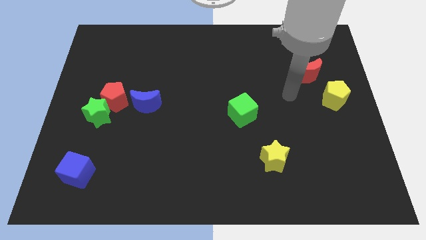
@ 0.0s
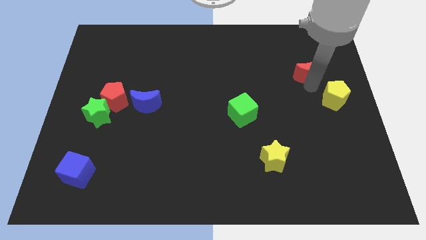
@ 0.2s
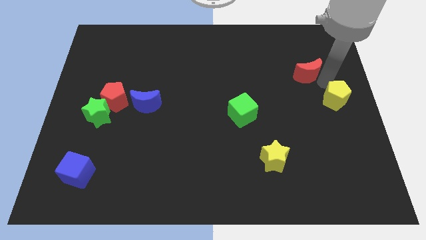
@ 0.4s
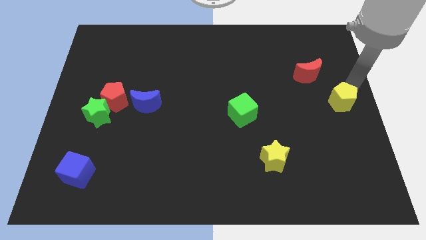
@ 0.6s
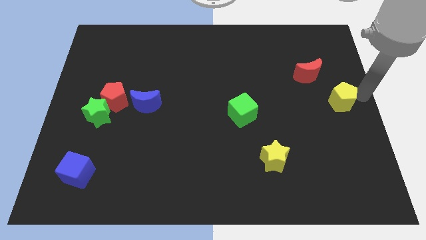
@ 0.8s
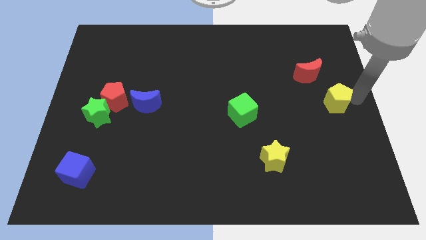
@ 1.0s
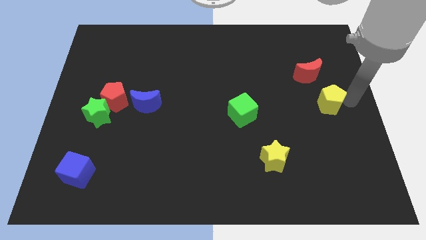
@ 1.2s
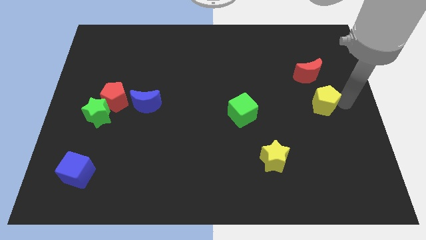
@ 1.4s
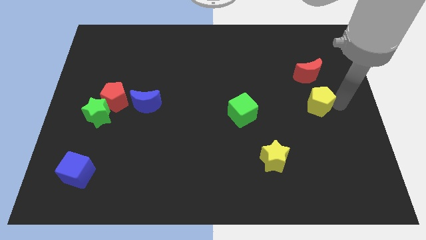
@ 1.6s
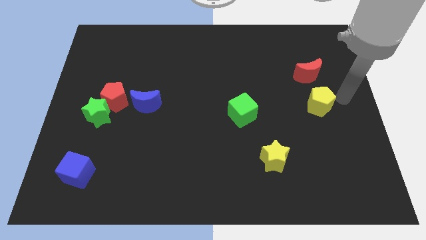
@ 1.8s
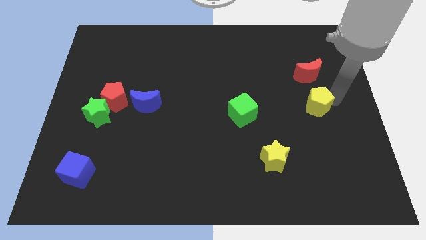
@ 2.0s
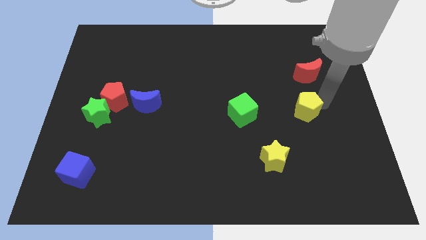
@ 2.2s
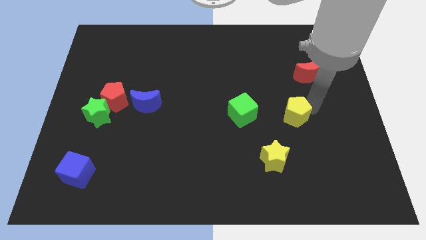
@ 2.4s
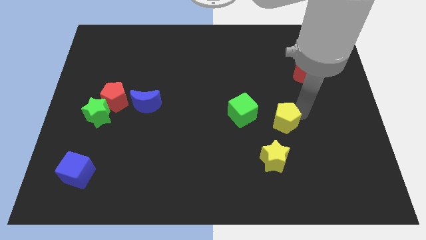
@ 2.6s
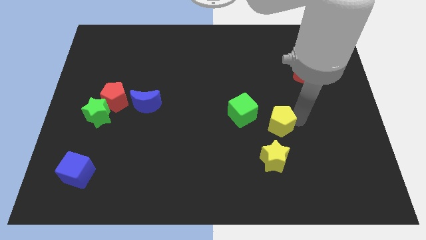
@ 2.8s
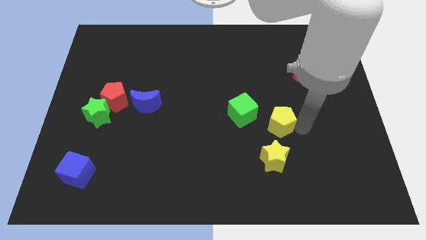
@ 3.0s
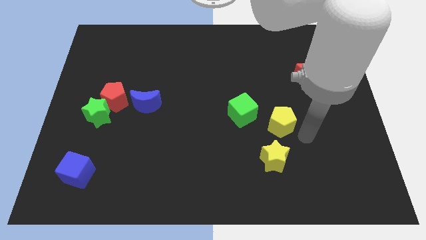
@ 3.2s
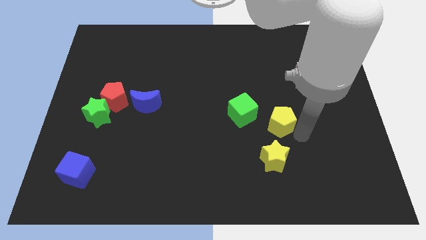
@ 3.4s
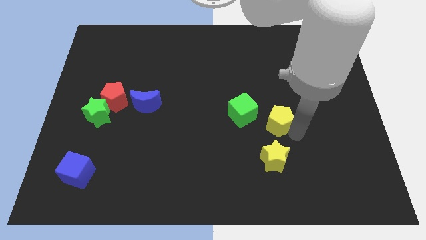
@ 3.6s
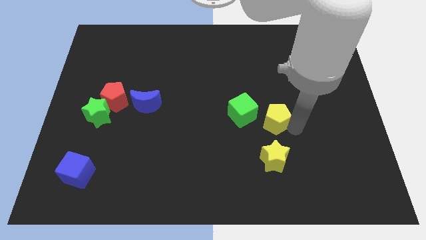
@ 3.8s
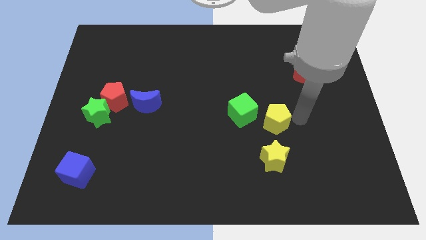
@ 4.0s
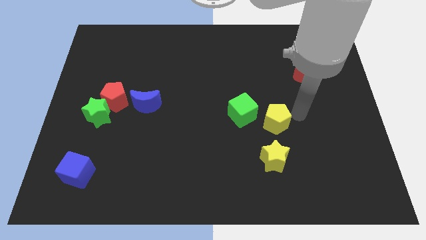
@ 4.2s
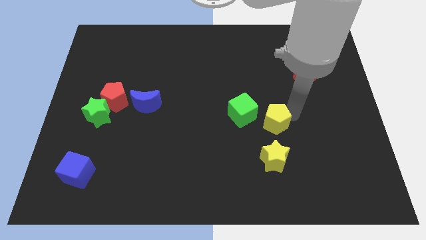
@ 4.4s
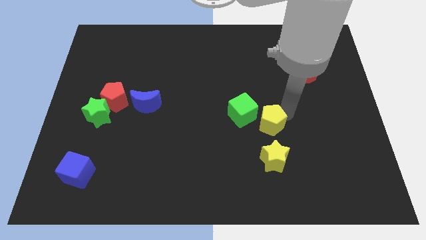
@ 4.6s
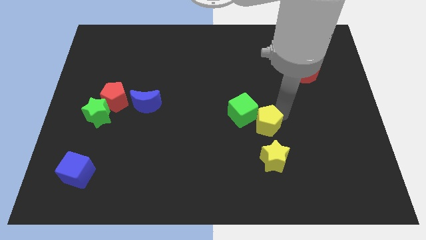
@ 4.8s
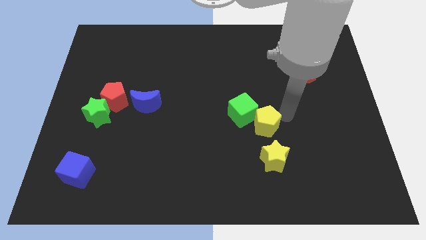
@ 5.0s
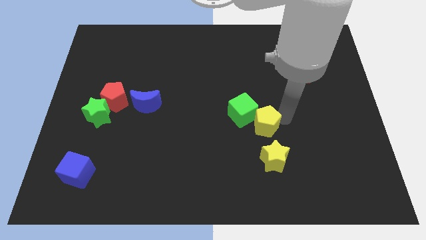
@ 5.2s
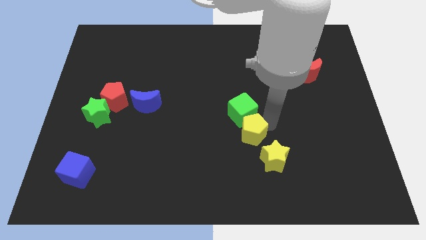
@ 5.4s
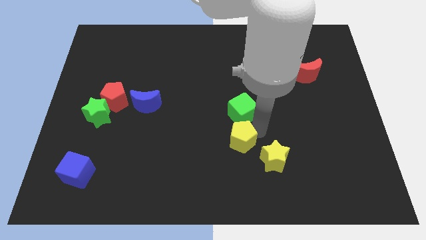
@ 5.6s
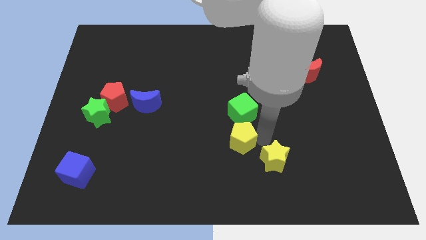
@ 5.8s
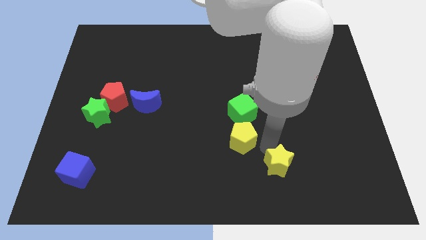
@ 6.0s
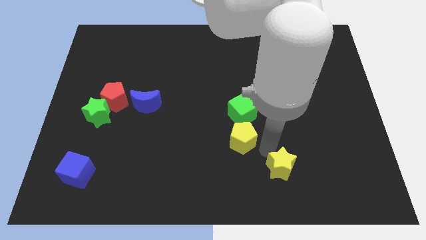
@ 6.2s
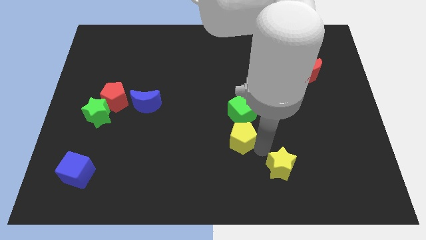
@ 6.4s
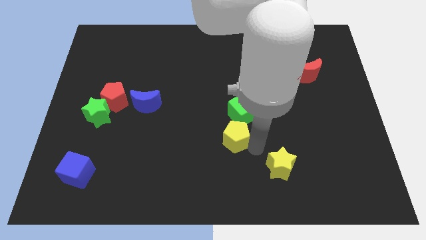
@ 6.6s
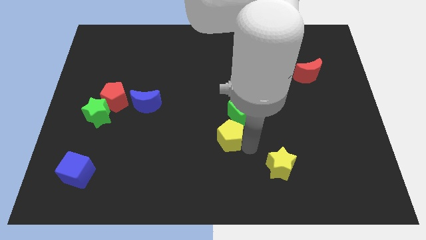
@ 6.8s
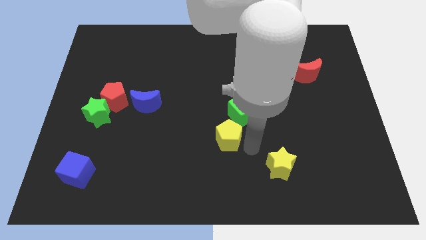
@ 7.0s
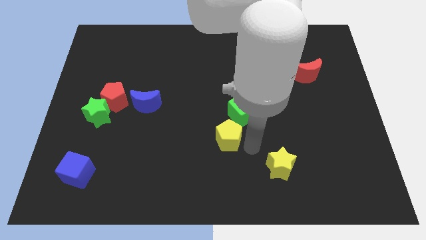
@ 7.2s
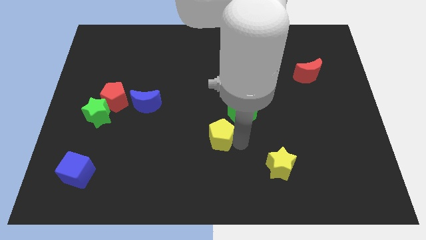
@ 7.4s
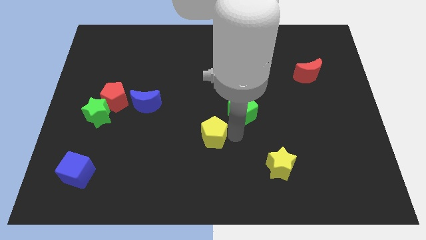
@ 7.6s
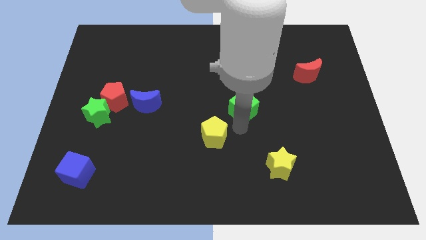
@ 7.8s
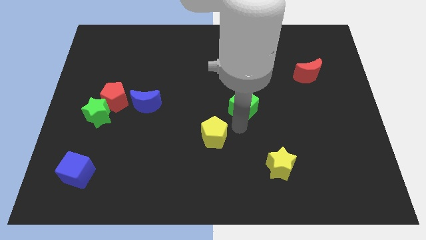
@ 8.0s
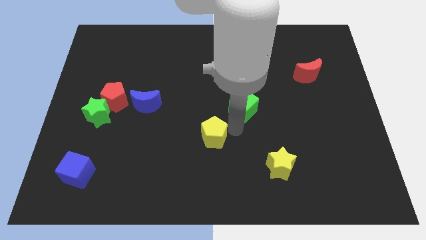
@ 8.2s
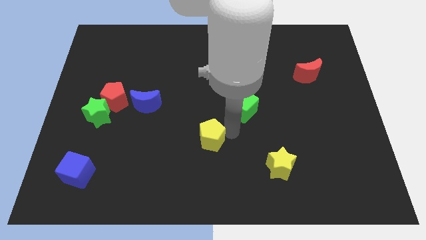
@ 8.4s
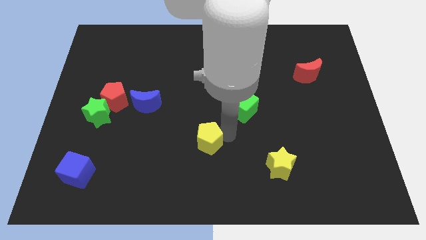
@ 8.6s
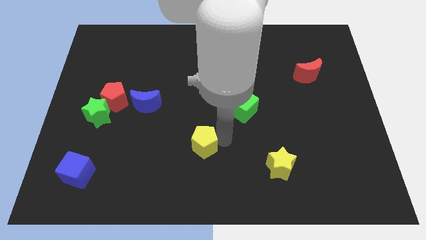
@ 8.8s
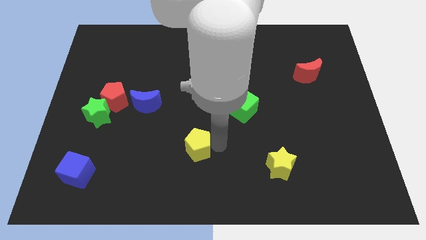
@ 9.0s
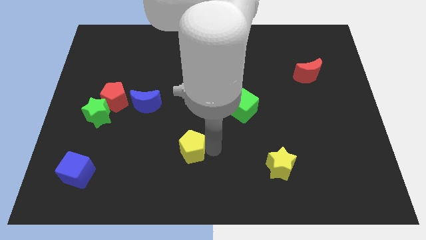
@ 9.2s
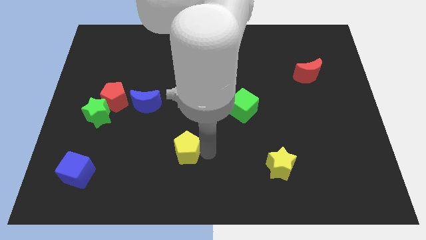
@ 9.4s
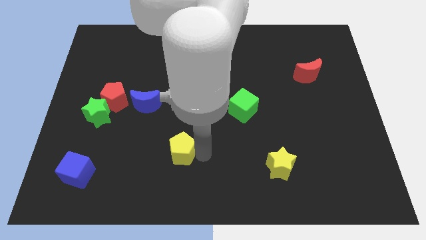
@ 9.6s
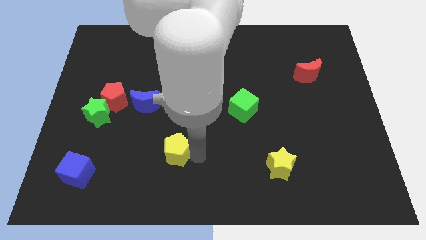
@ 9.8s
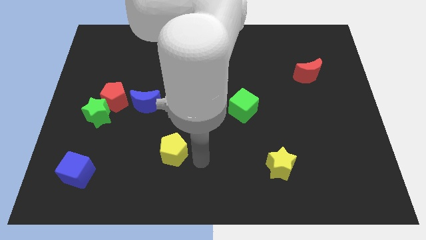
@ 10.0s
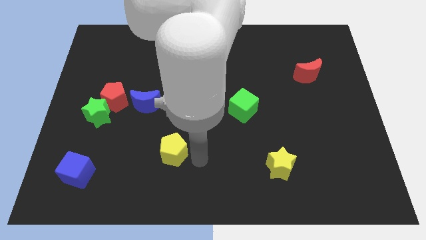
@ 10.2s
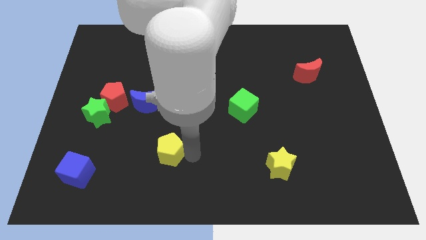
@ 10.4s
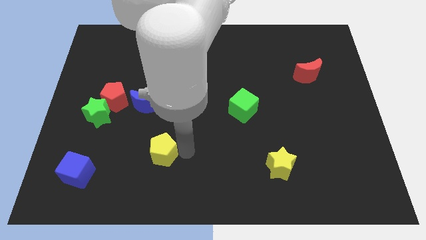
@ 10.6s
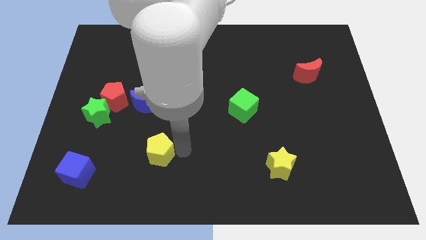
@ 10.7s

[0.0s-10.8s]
move the yellow pentagon to the bottom side of the blue moon

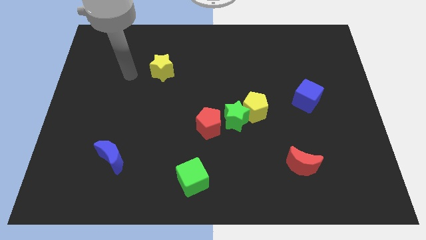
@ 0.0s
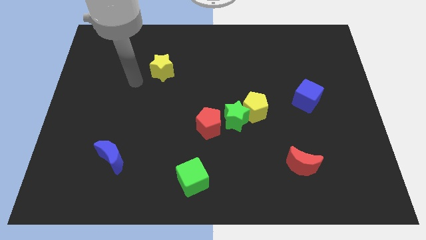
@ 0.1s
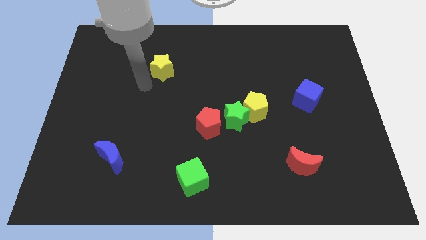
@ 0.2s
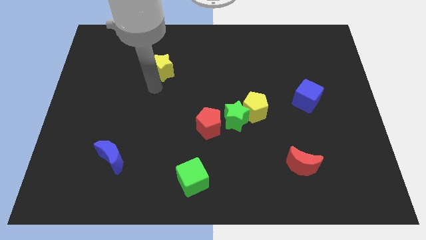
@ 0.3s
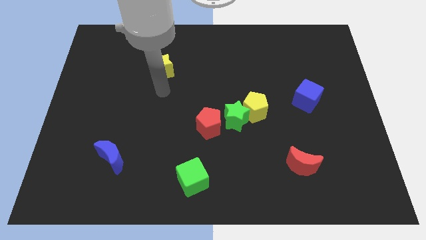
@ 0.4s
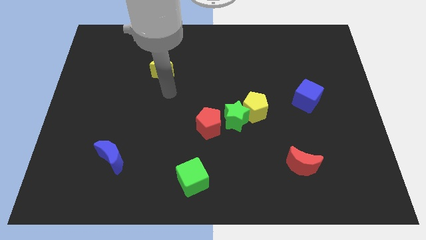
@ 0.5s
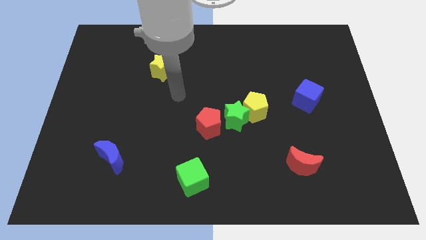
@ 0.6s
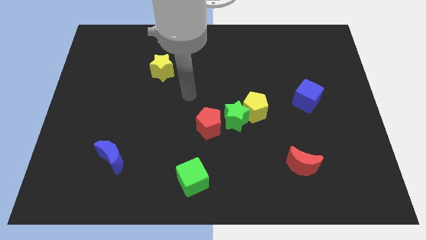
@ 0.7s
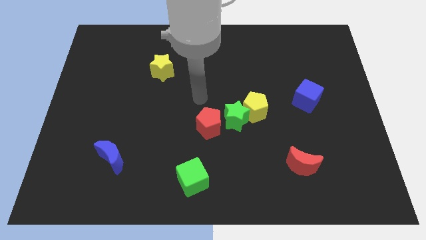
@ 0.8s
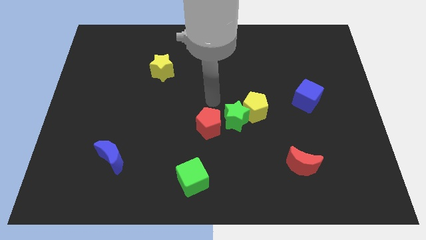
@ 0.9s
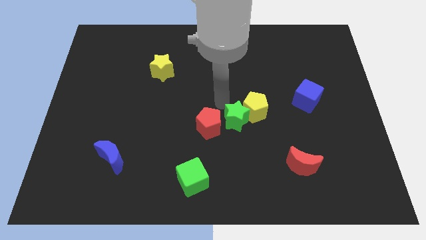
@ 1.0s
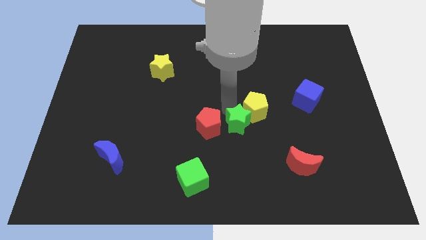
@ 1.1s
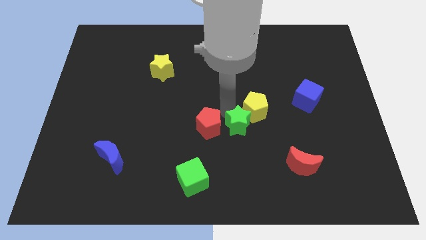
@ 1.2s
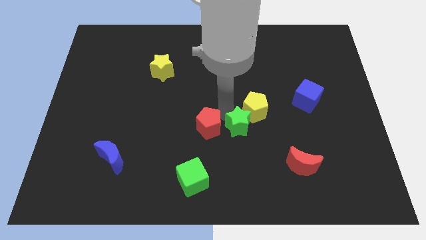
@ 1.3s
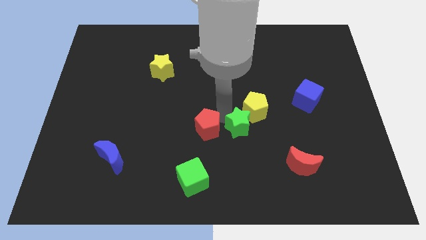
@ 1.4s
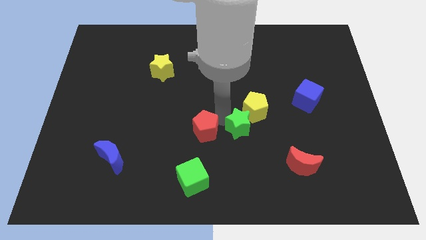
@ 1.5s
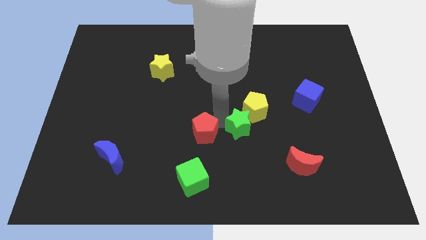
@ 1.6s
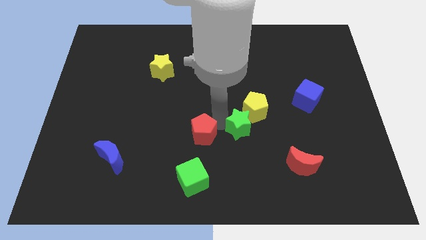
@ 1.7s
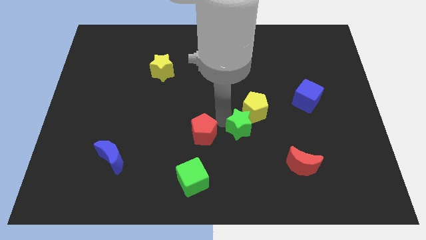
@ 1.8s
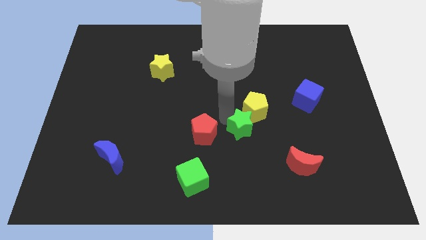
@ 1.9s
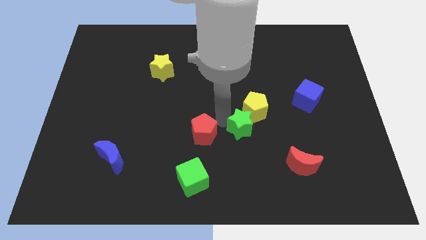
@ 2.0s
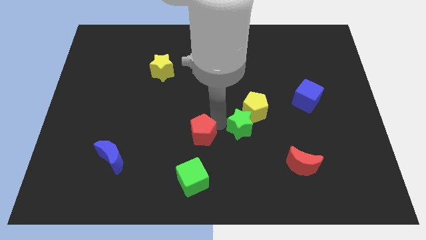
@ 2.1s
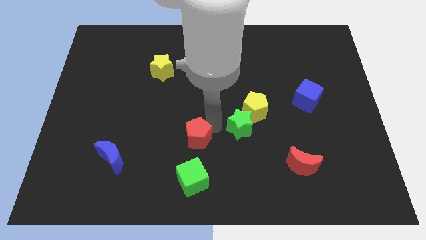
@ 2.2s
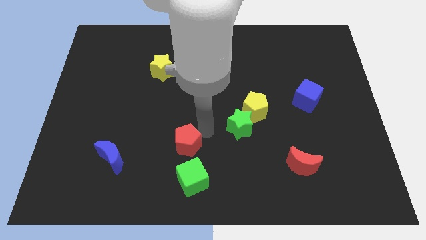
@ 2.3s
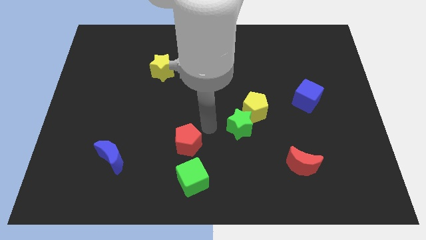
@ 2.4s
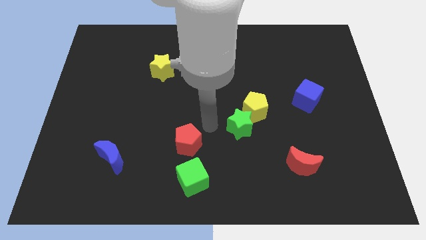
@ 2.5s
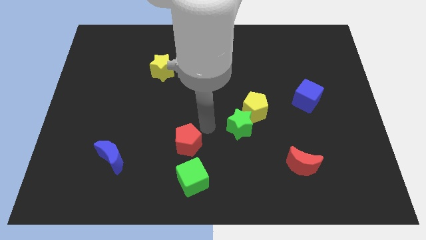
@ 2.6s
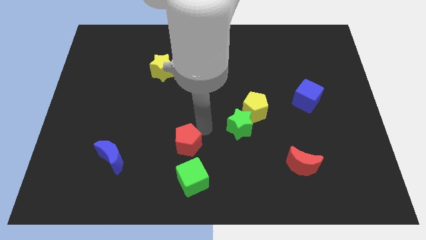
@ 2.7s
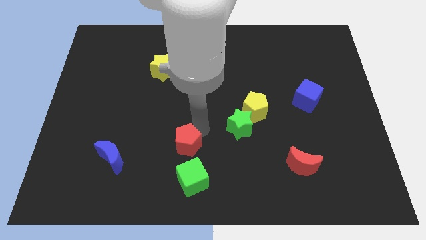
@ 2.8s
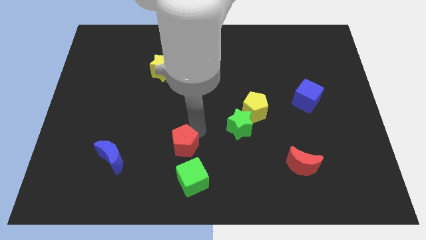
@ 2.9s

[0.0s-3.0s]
push the red pentagon to the top left of the green cube
